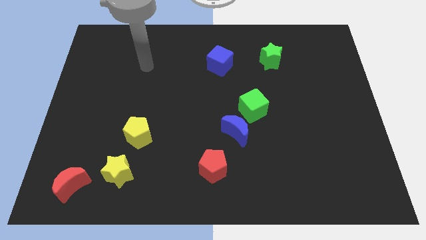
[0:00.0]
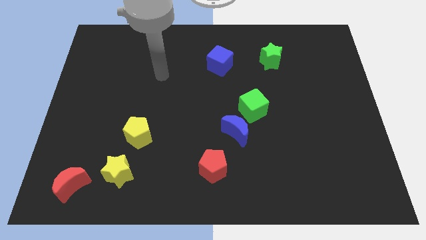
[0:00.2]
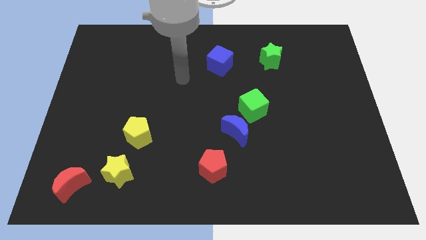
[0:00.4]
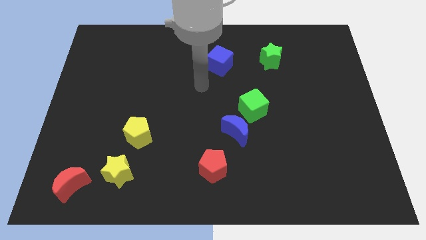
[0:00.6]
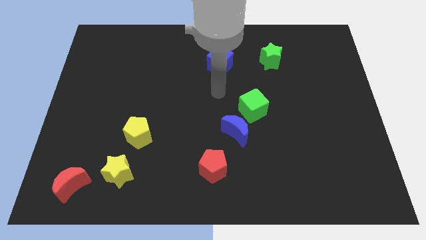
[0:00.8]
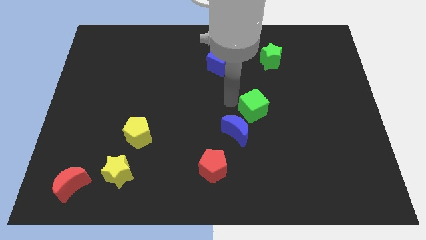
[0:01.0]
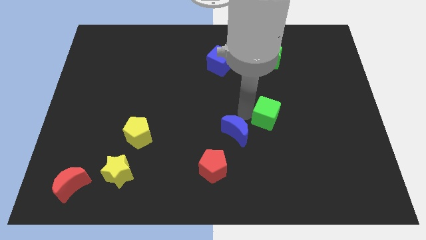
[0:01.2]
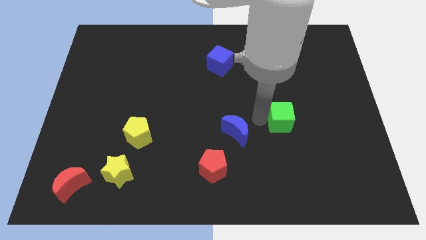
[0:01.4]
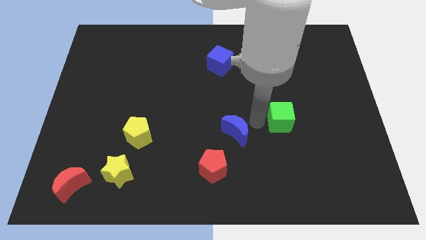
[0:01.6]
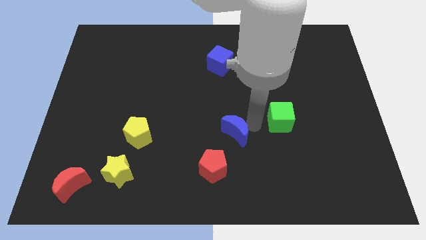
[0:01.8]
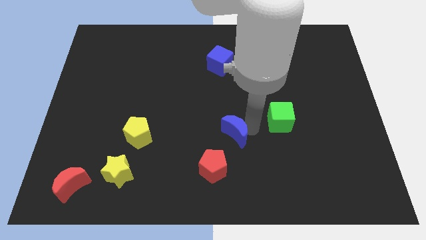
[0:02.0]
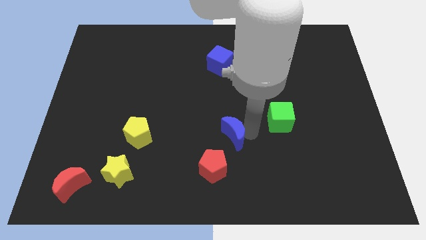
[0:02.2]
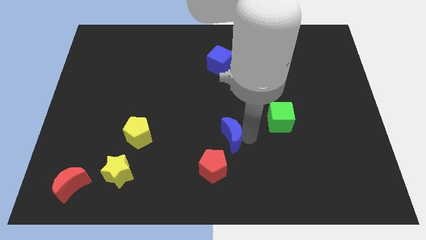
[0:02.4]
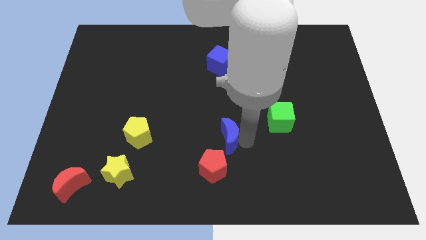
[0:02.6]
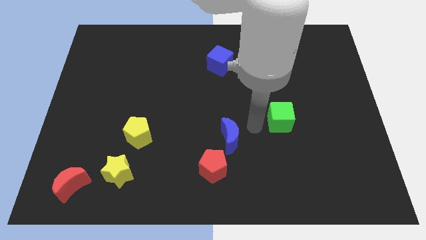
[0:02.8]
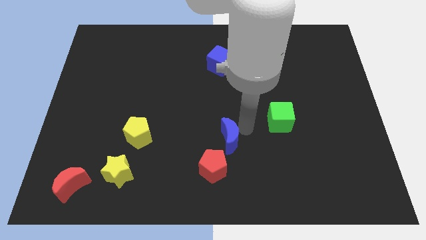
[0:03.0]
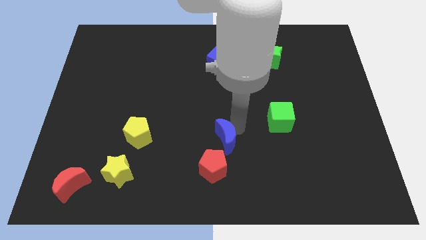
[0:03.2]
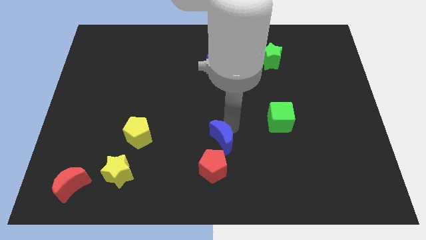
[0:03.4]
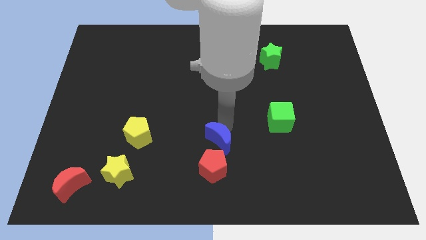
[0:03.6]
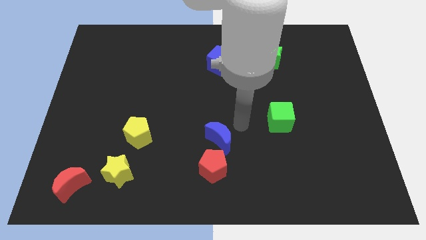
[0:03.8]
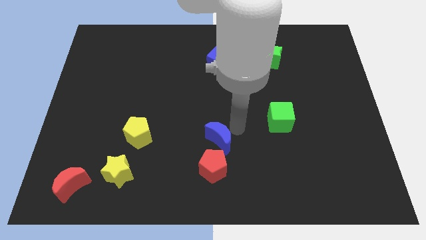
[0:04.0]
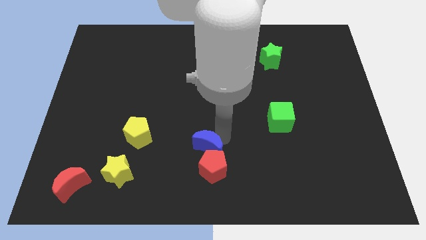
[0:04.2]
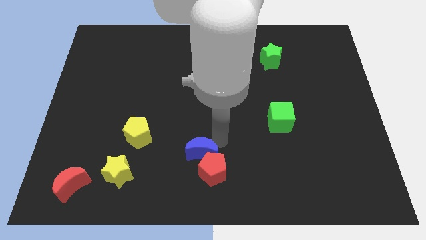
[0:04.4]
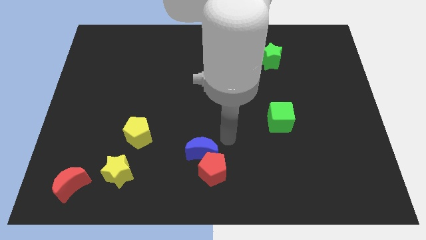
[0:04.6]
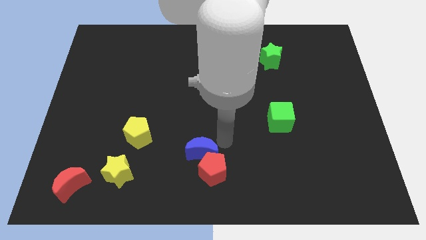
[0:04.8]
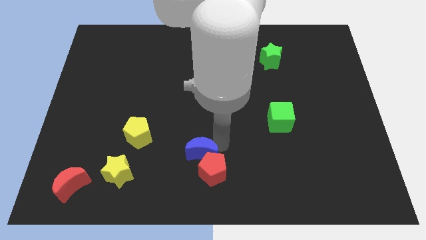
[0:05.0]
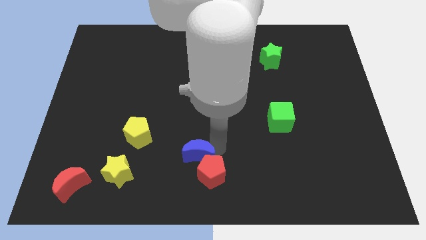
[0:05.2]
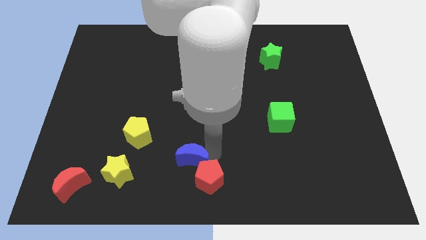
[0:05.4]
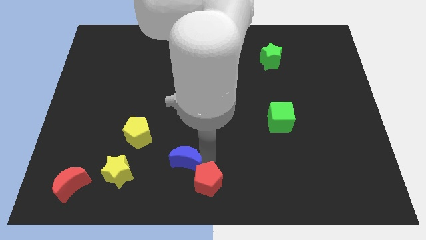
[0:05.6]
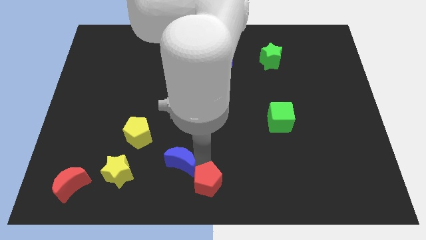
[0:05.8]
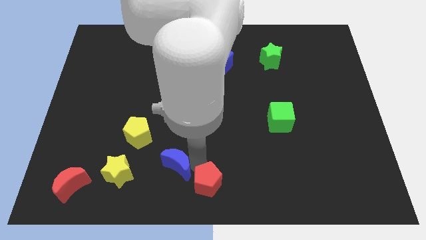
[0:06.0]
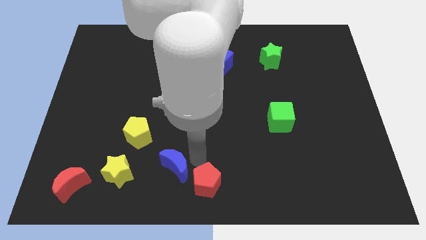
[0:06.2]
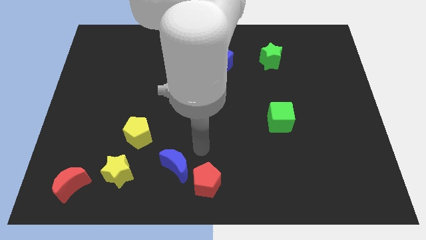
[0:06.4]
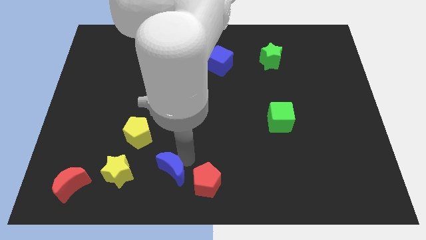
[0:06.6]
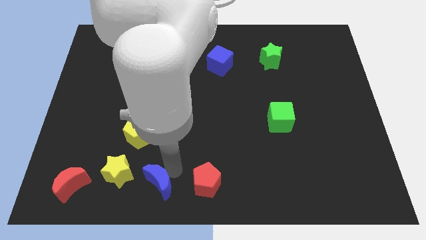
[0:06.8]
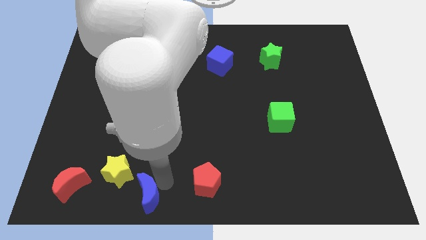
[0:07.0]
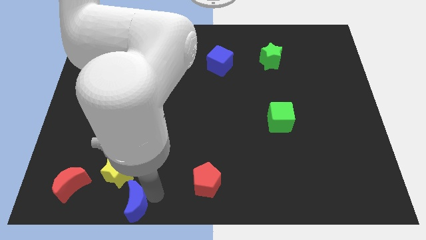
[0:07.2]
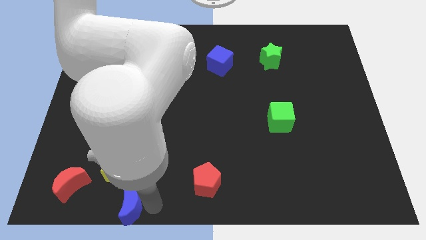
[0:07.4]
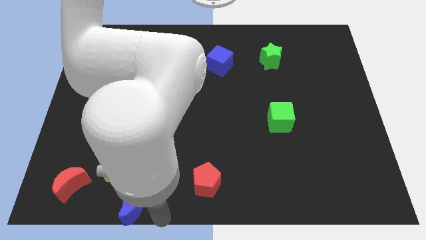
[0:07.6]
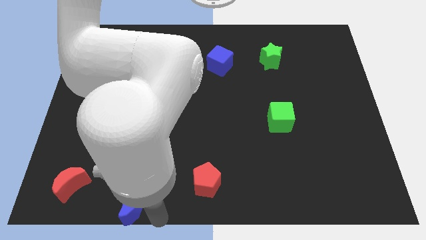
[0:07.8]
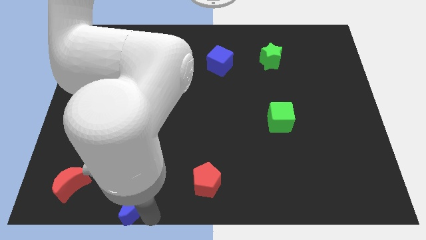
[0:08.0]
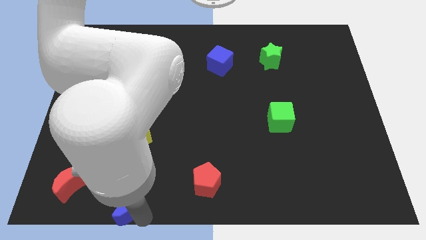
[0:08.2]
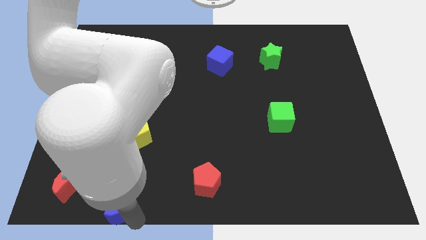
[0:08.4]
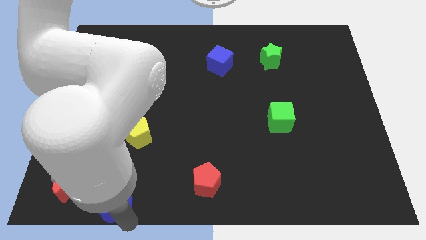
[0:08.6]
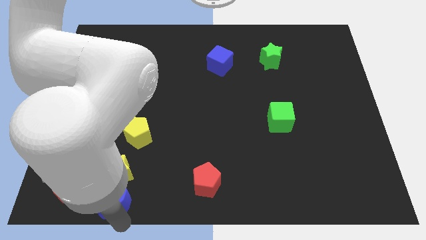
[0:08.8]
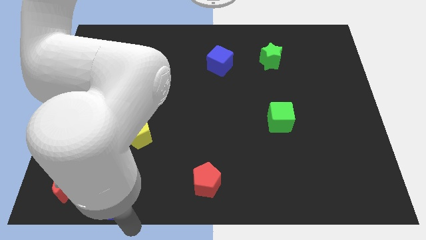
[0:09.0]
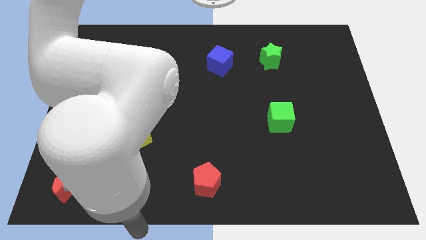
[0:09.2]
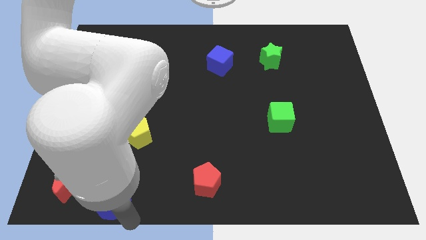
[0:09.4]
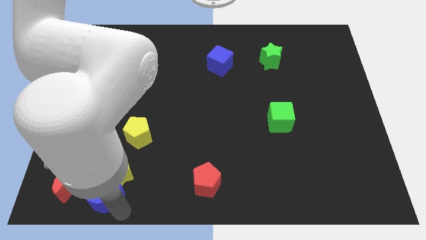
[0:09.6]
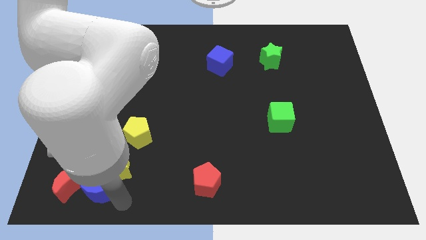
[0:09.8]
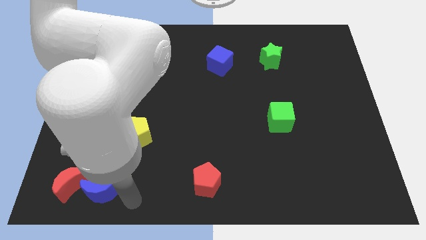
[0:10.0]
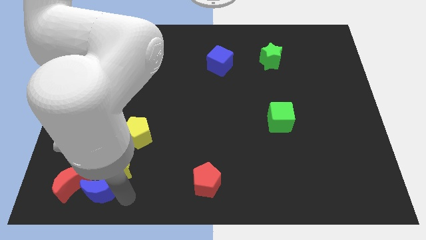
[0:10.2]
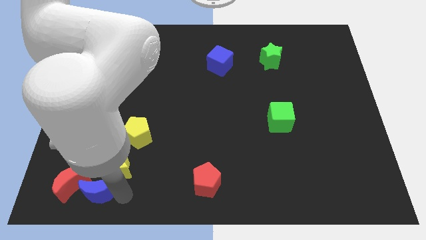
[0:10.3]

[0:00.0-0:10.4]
move the blue moon close to the red moon

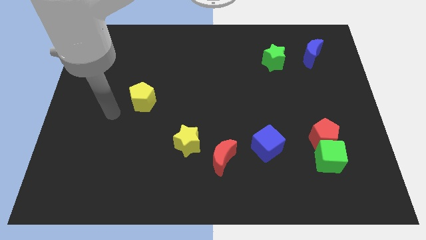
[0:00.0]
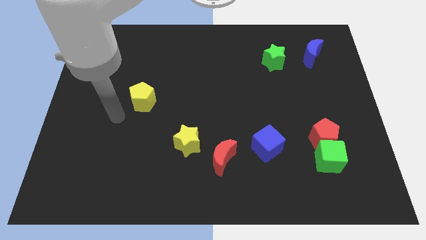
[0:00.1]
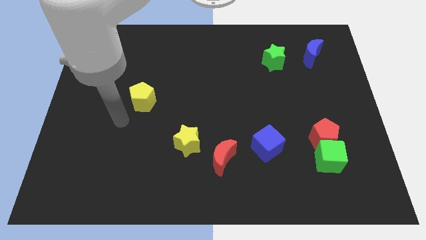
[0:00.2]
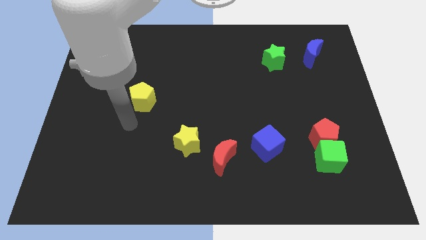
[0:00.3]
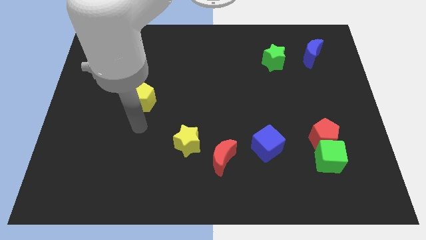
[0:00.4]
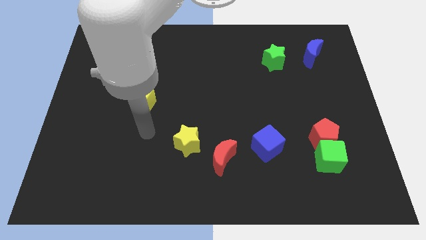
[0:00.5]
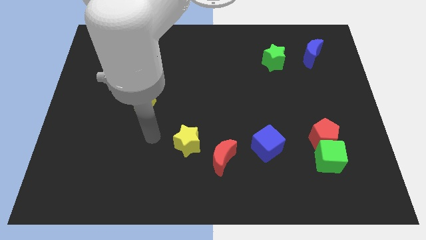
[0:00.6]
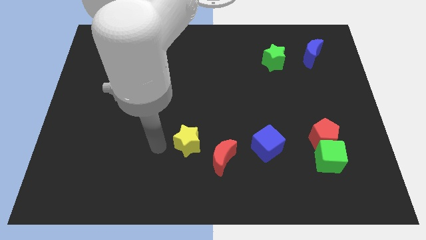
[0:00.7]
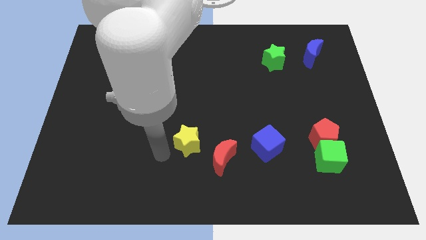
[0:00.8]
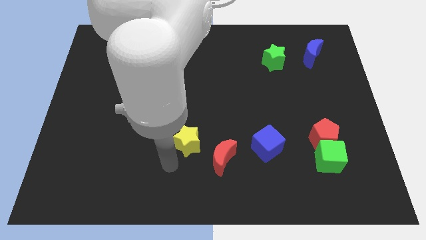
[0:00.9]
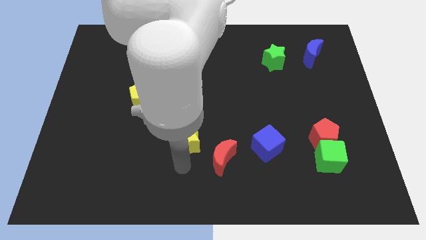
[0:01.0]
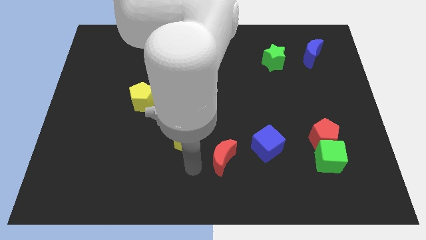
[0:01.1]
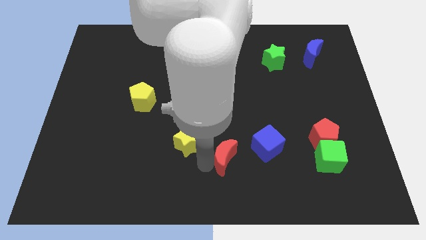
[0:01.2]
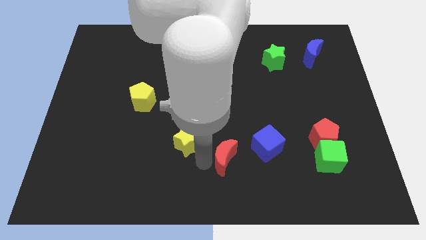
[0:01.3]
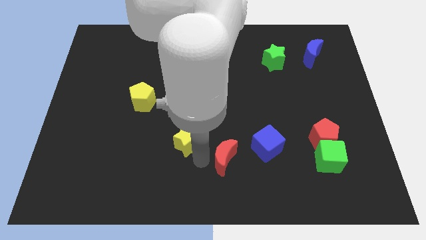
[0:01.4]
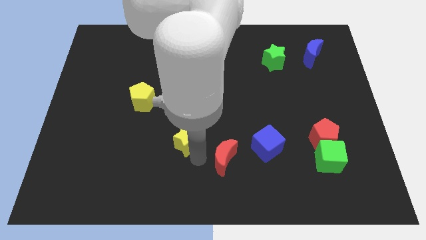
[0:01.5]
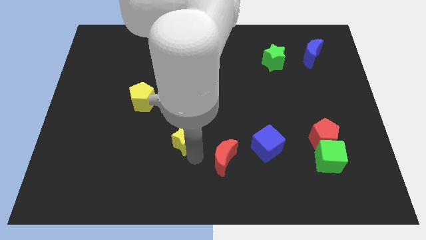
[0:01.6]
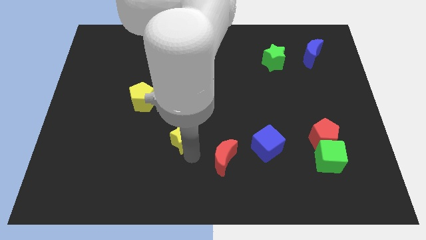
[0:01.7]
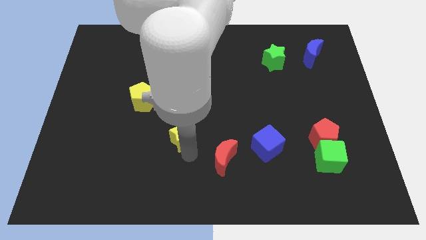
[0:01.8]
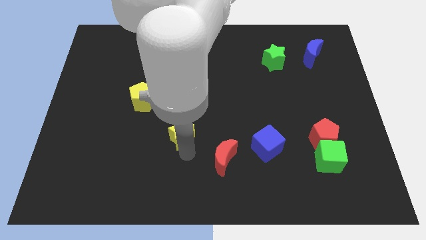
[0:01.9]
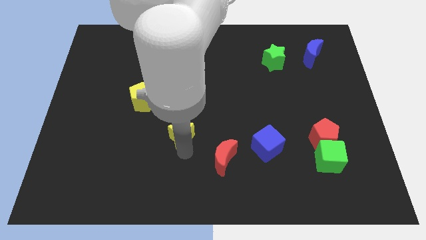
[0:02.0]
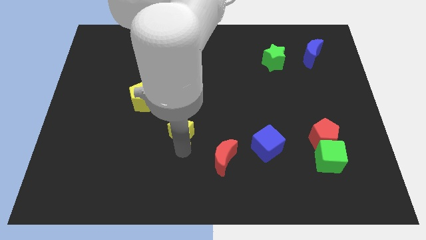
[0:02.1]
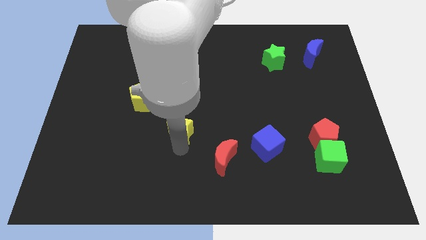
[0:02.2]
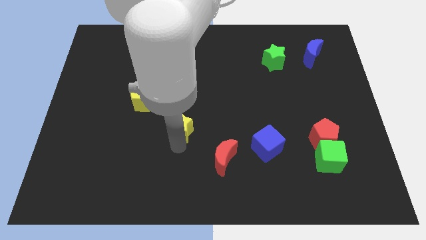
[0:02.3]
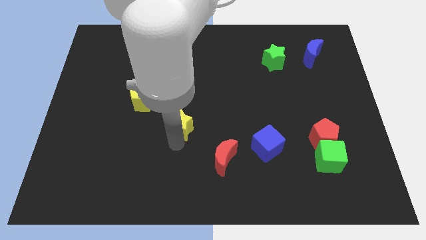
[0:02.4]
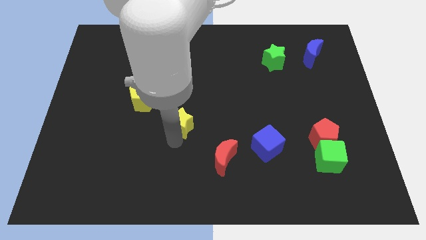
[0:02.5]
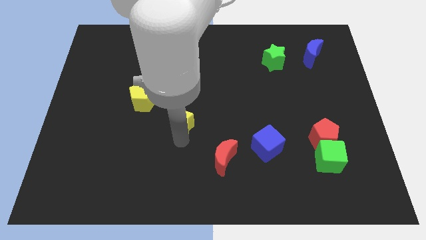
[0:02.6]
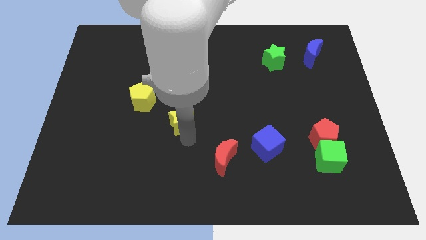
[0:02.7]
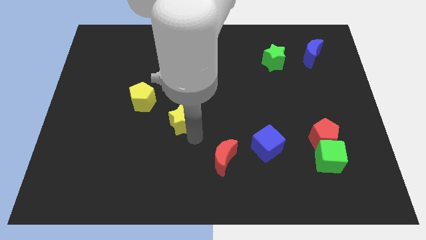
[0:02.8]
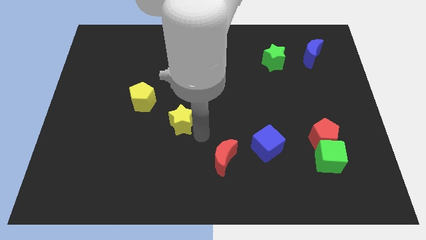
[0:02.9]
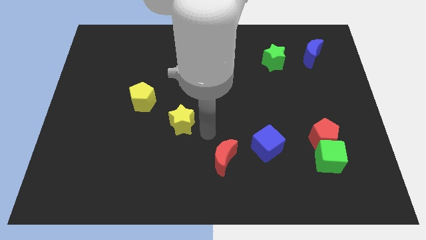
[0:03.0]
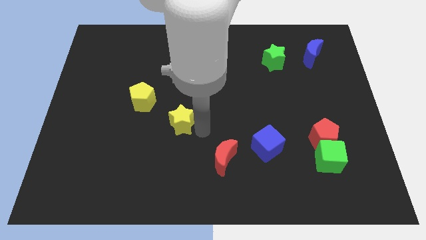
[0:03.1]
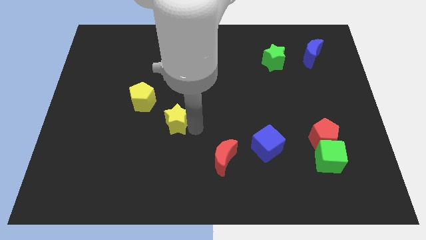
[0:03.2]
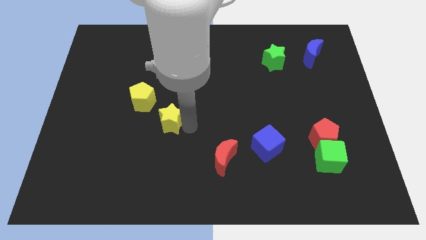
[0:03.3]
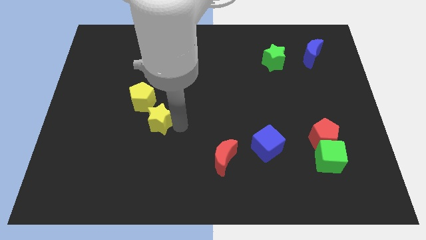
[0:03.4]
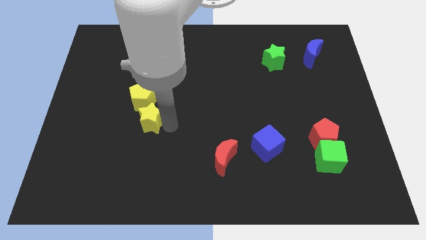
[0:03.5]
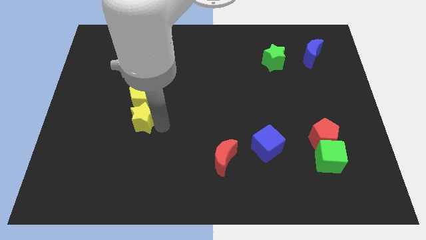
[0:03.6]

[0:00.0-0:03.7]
move the yellow star close to the yellow pentagon
